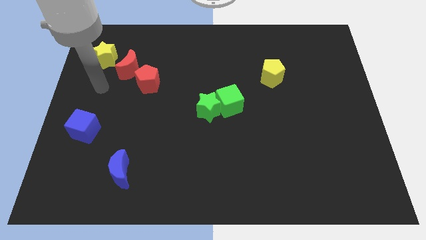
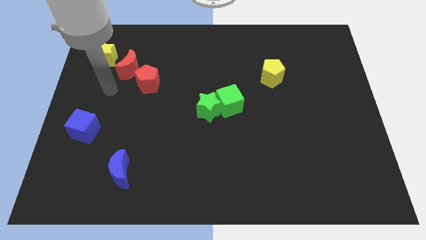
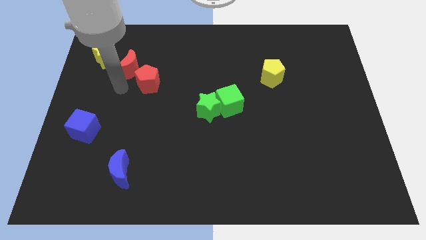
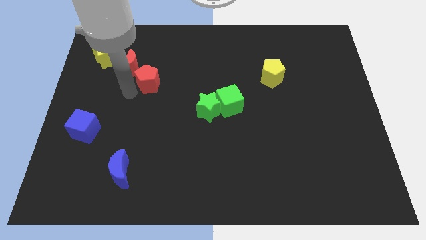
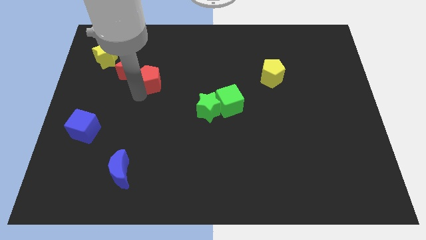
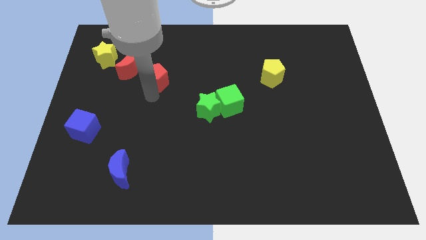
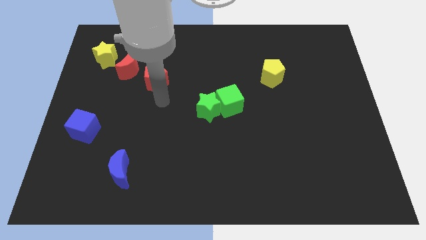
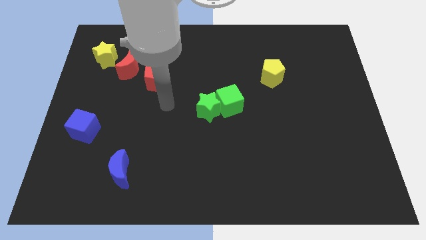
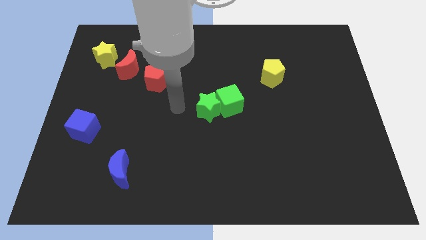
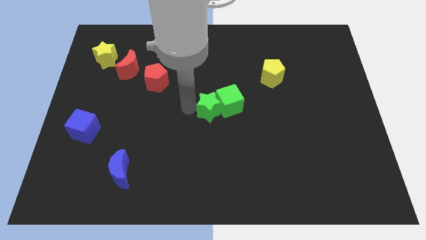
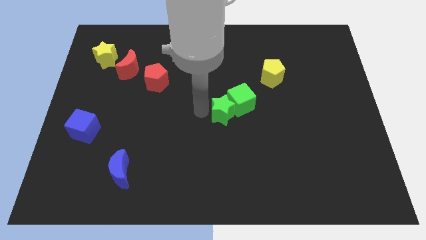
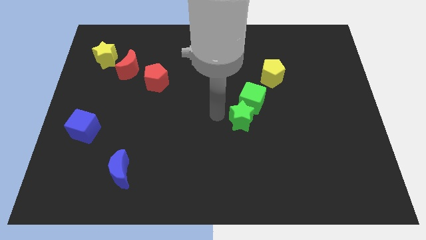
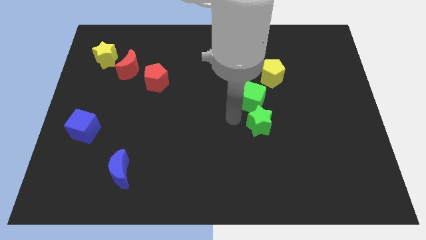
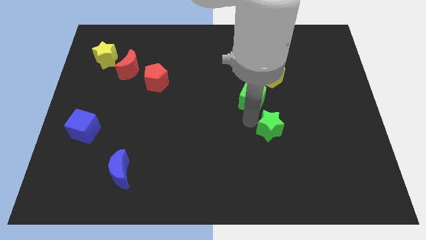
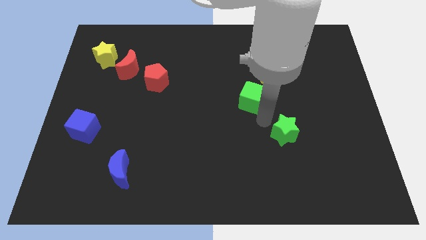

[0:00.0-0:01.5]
move the green cube away from the green star

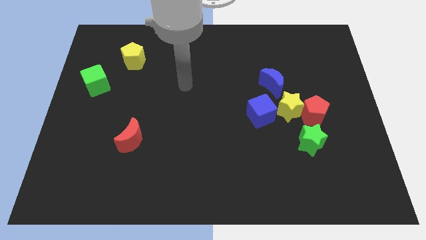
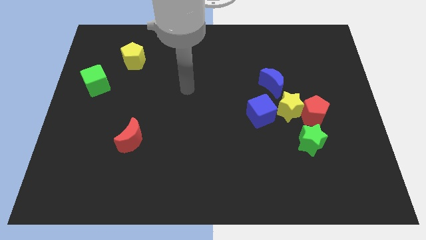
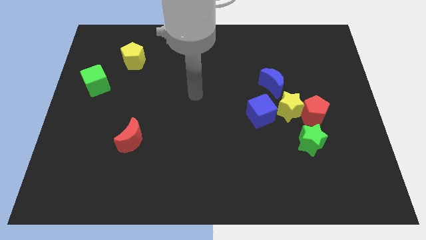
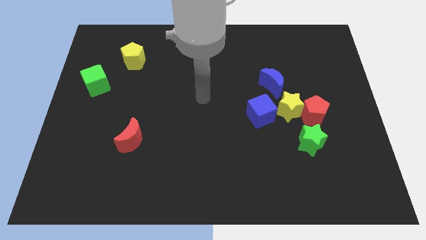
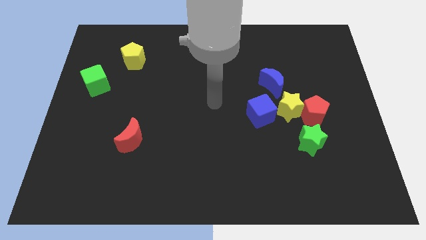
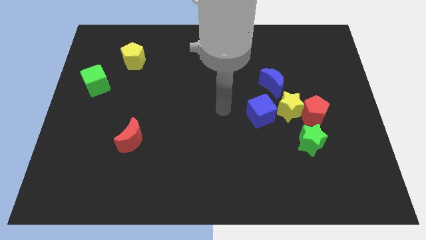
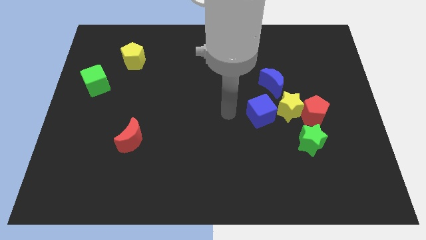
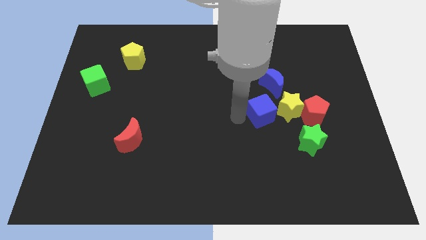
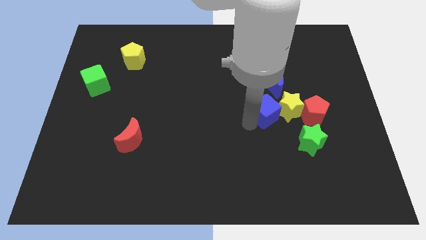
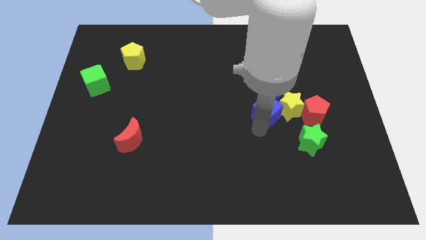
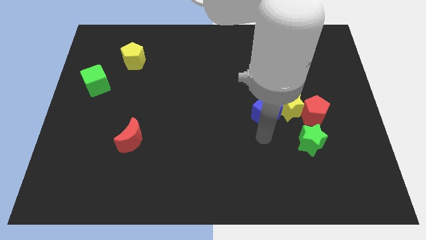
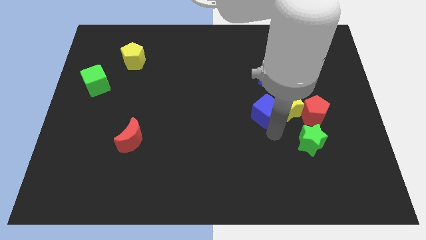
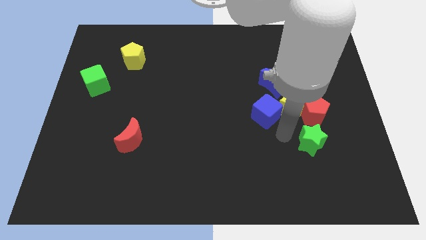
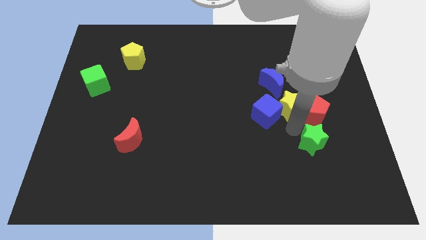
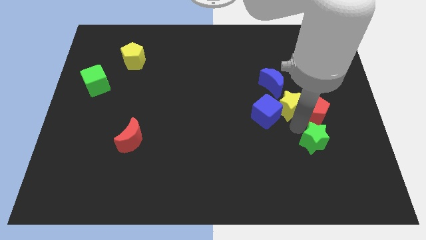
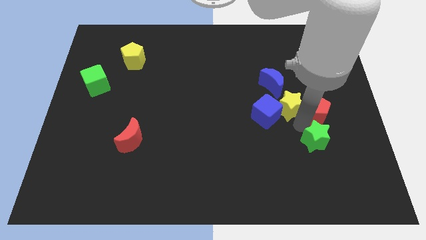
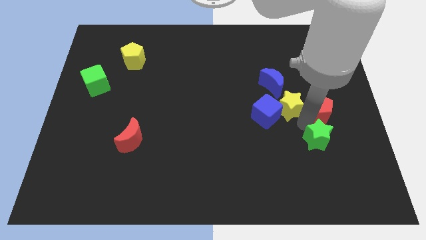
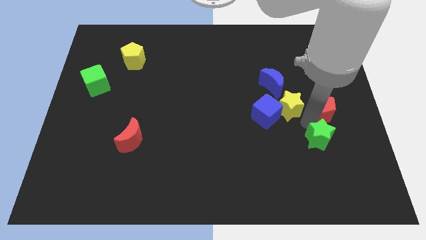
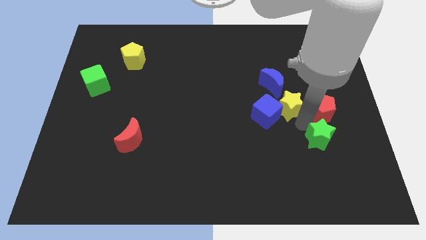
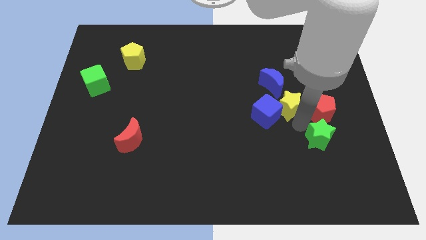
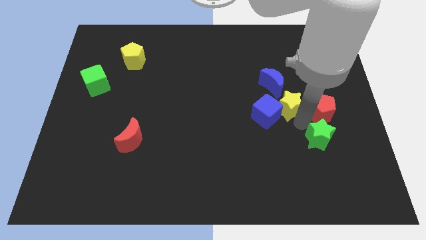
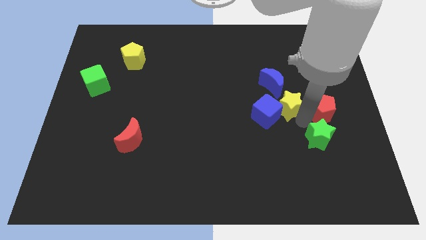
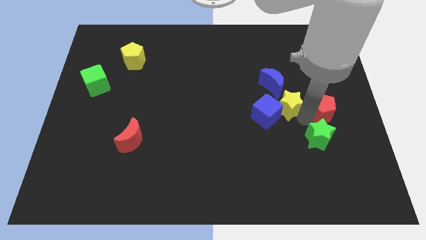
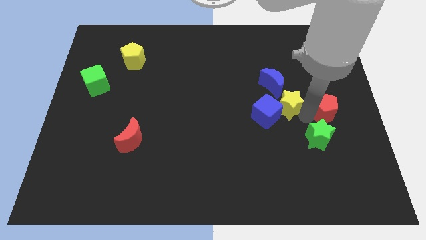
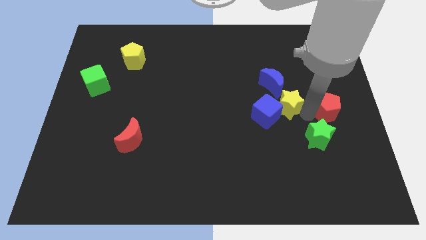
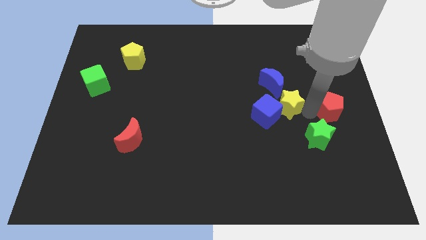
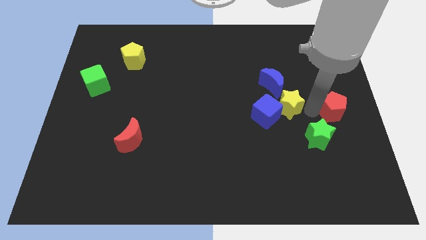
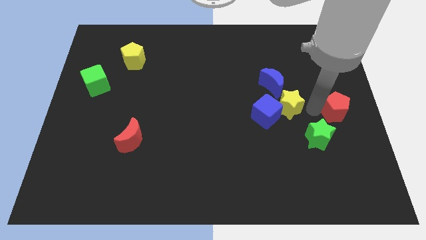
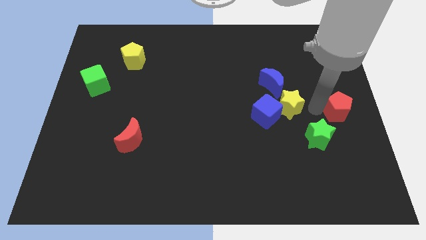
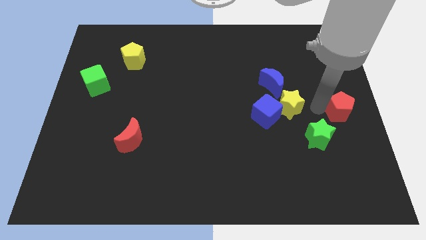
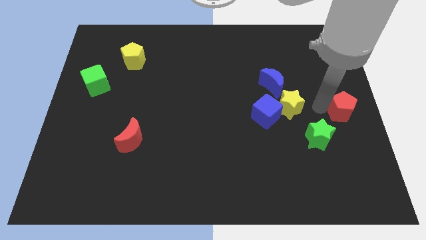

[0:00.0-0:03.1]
pull the red pentagon apart from the yellow star and green star

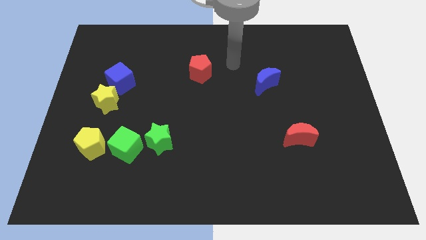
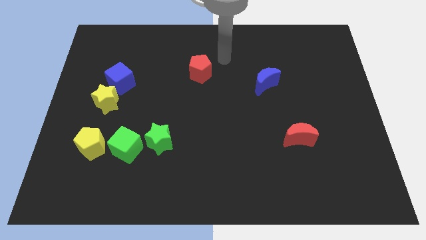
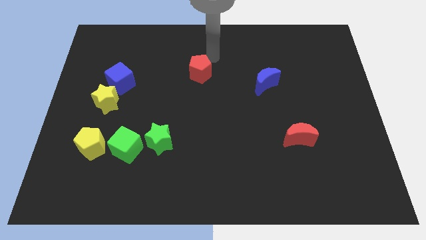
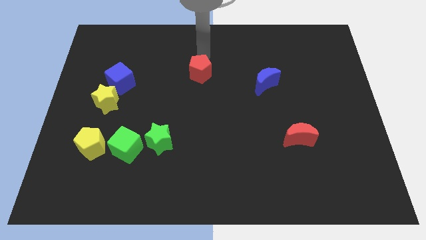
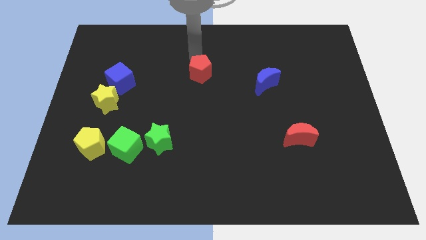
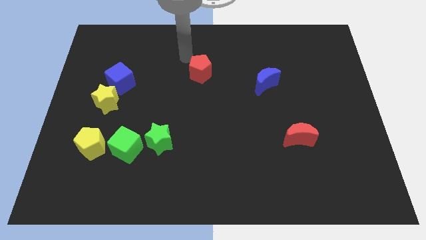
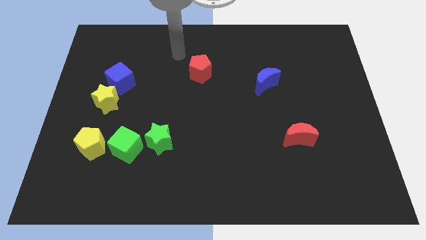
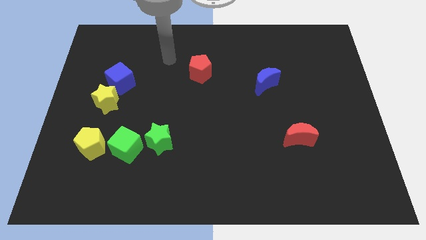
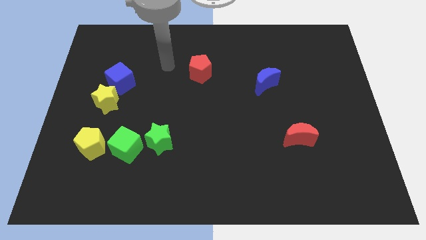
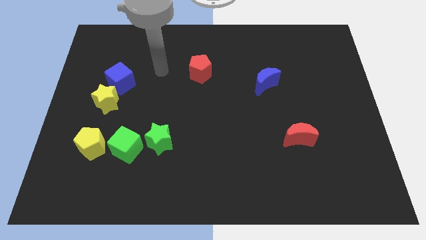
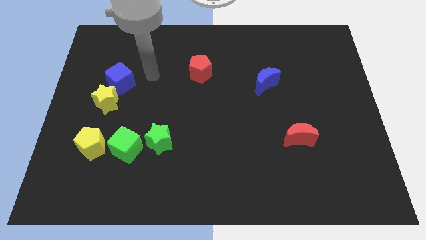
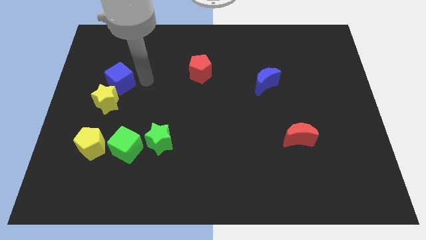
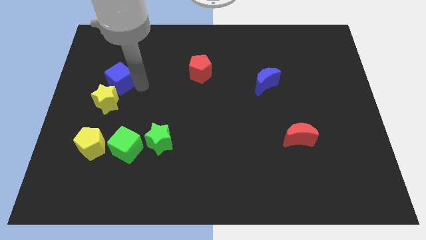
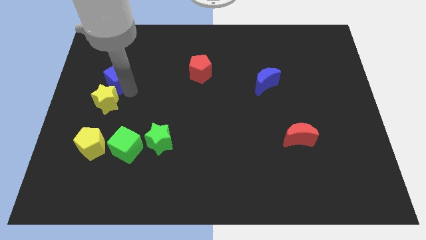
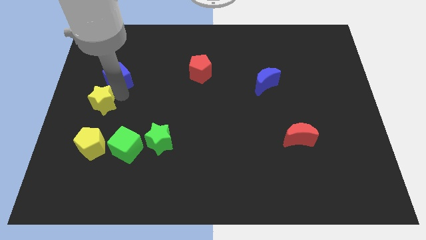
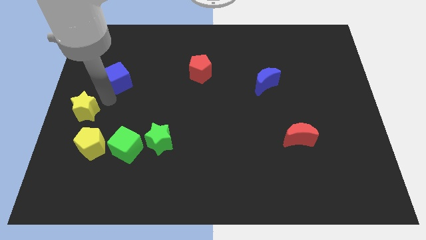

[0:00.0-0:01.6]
move the blue cube away from the yellow star

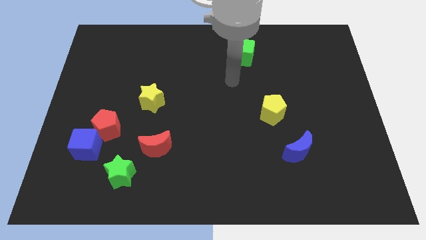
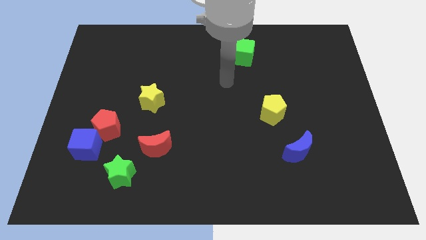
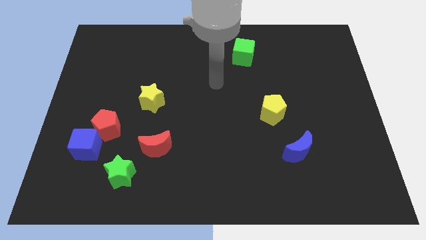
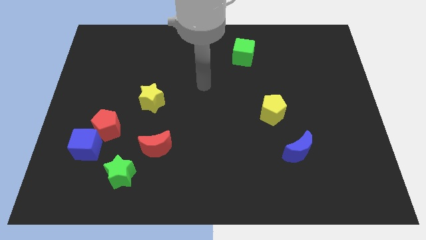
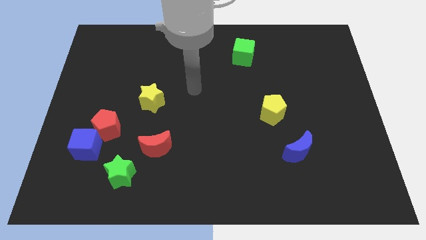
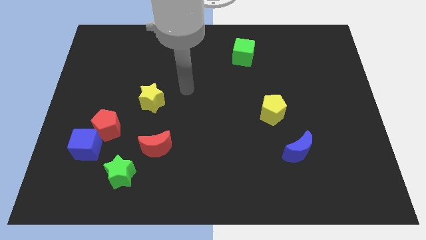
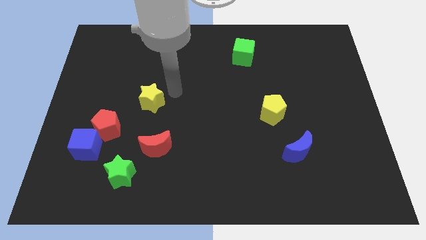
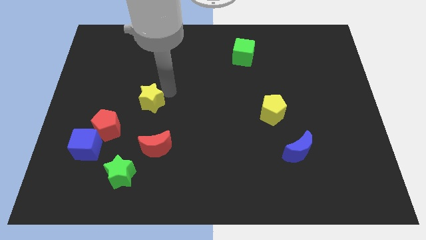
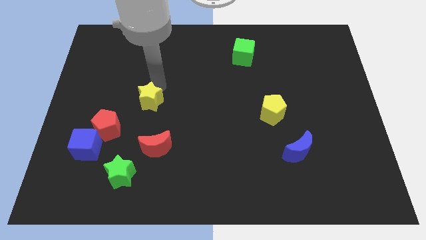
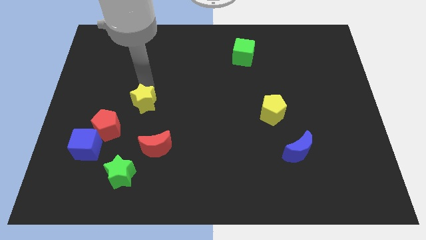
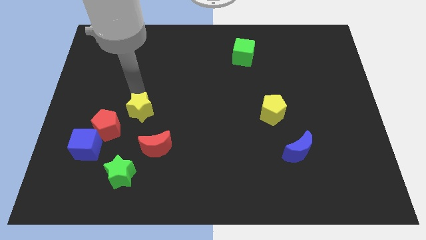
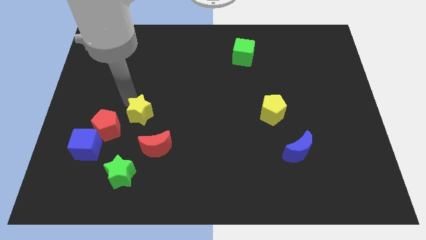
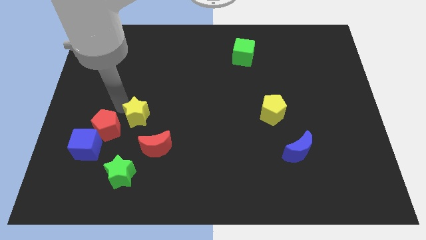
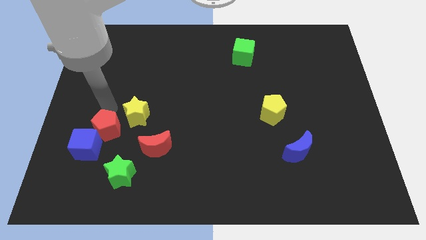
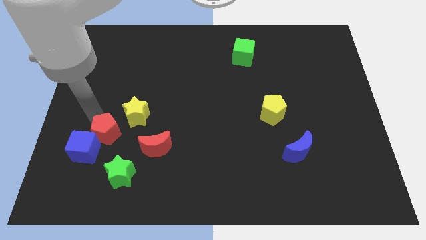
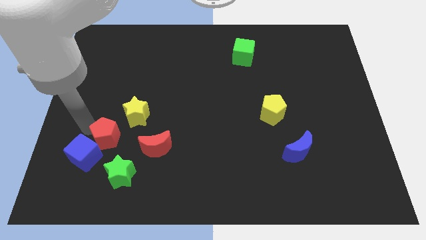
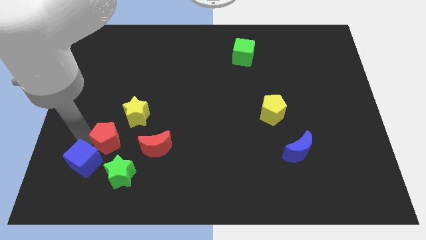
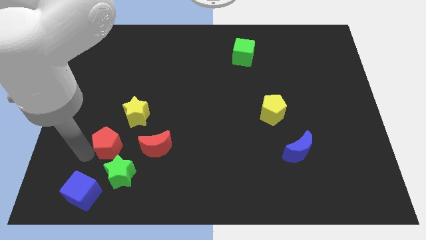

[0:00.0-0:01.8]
pull the red pentagon apart from the blue cube

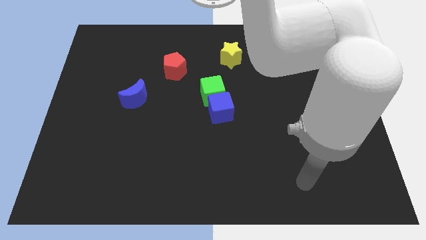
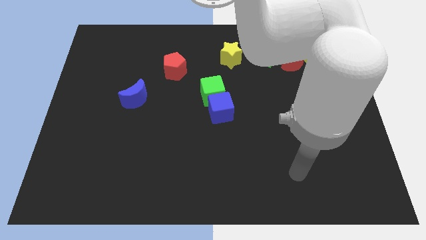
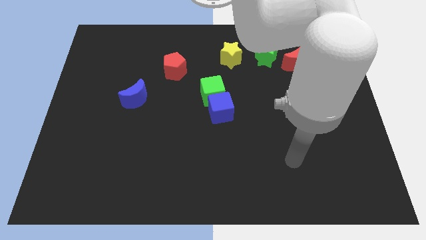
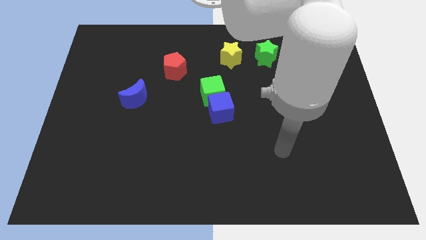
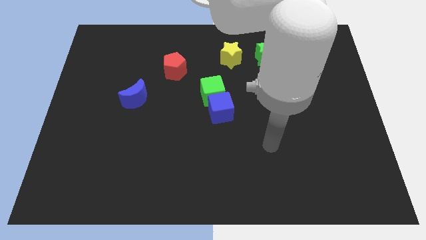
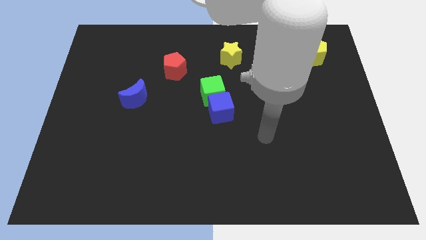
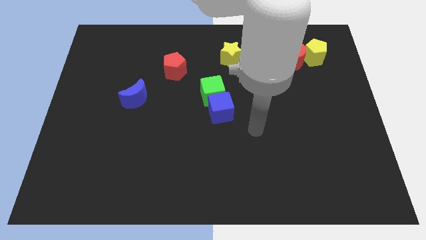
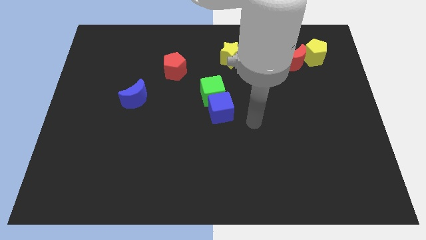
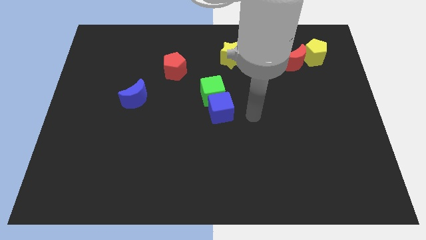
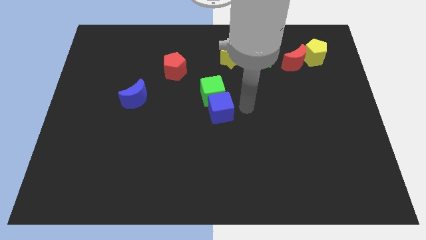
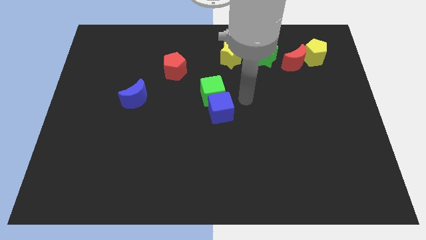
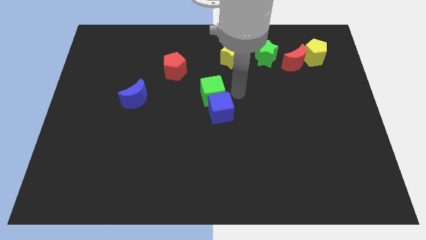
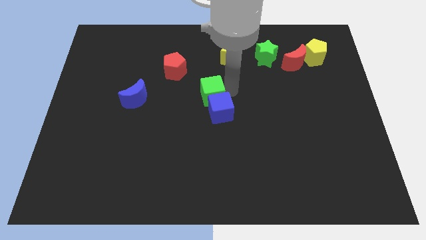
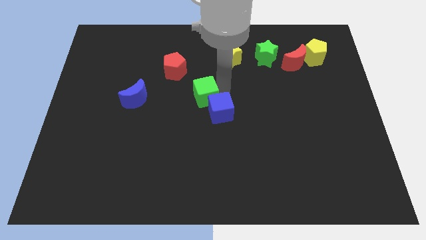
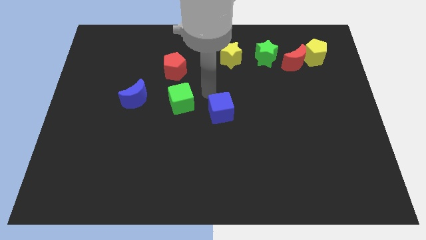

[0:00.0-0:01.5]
move the blue cube away from the green cube
